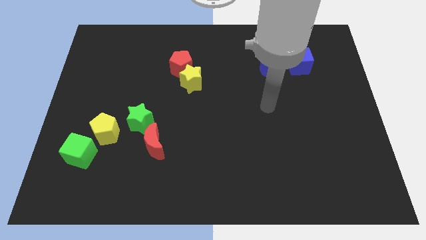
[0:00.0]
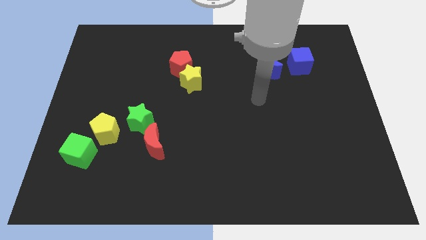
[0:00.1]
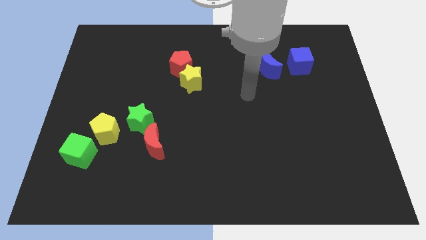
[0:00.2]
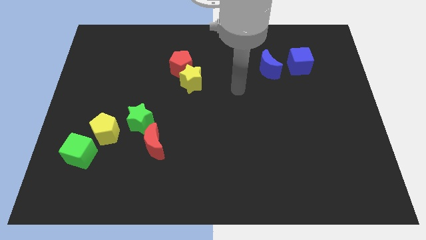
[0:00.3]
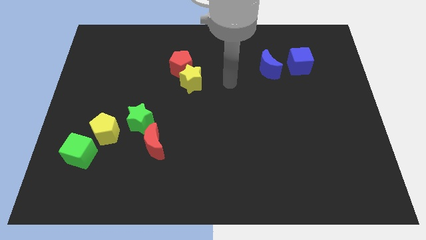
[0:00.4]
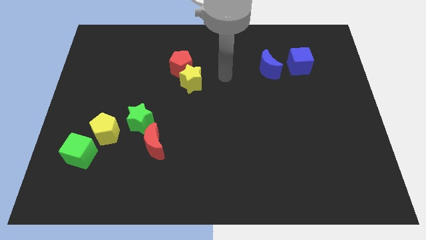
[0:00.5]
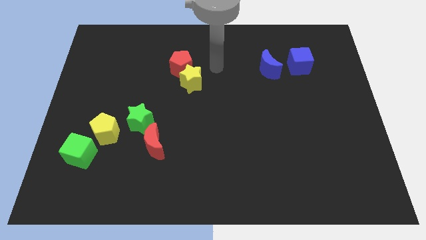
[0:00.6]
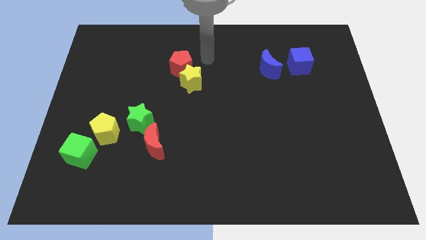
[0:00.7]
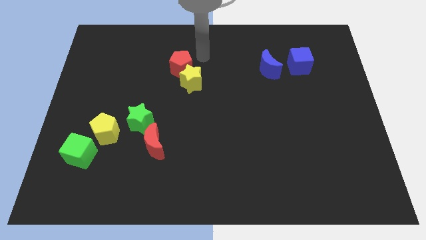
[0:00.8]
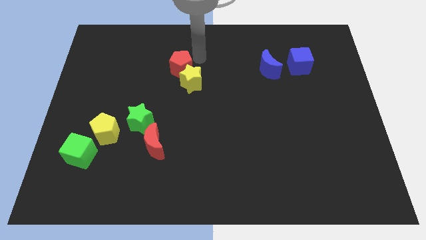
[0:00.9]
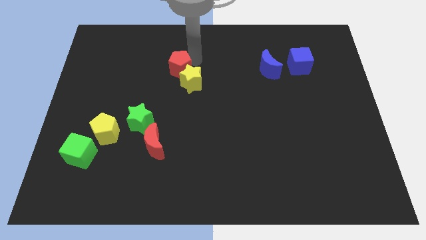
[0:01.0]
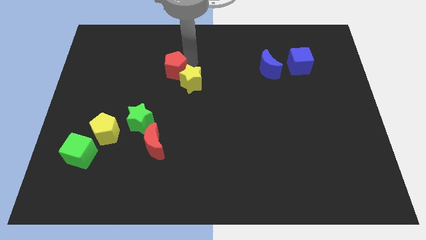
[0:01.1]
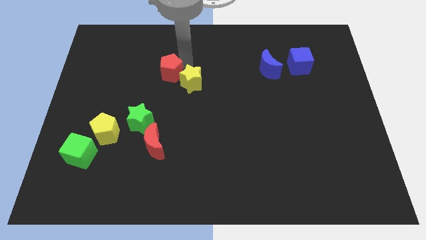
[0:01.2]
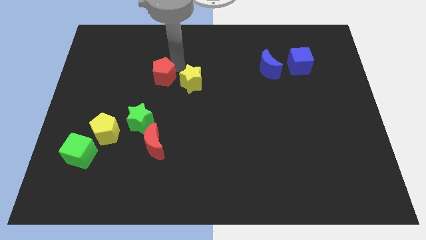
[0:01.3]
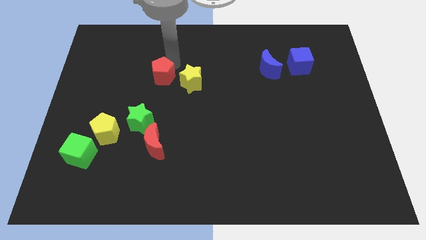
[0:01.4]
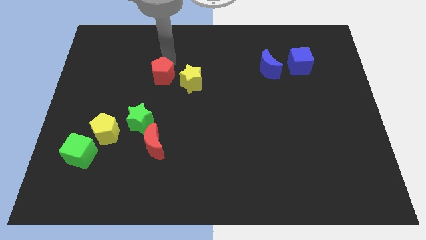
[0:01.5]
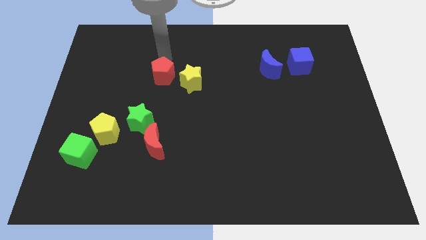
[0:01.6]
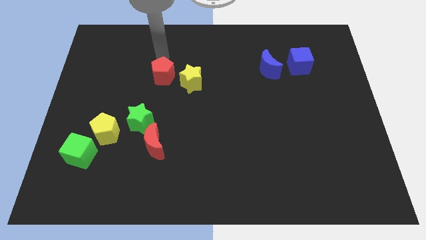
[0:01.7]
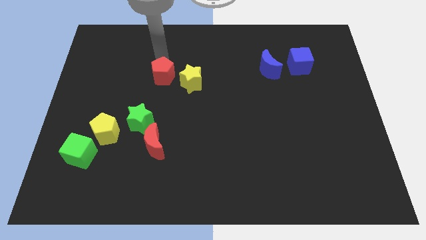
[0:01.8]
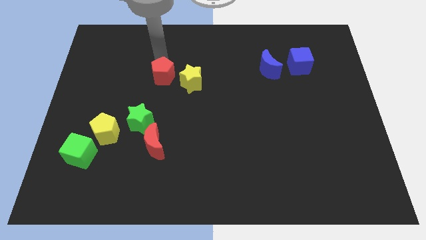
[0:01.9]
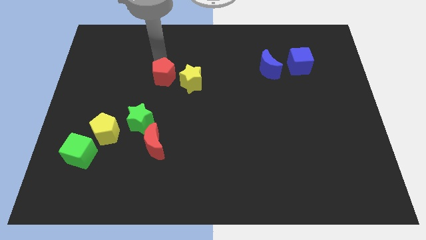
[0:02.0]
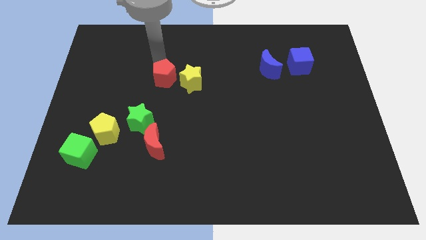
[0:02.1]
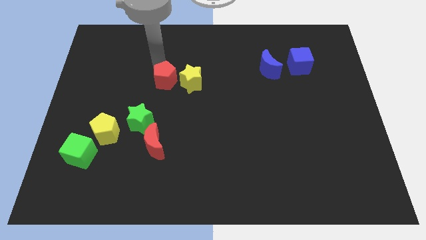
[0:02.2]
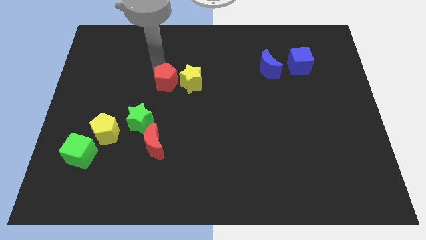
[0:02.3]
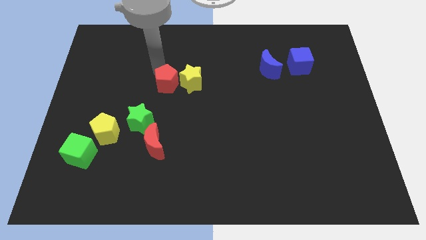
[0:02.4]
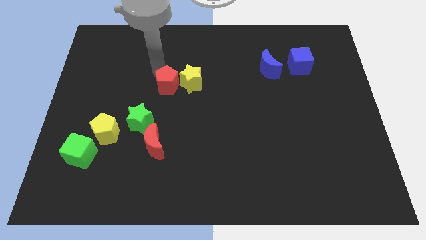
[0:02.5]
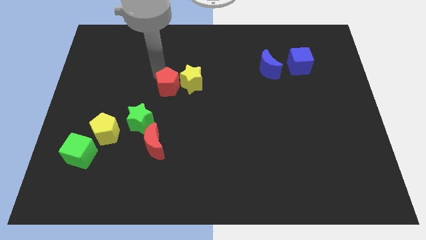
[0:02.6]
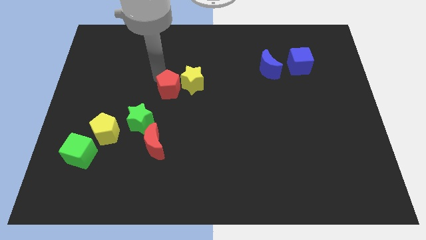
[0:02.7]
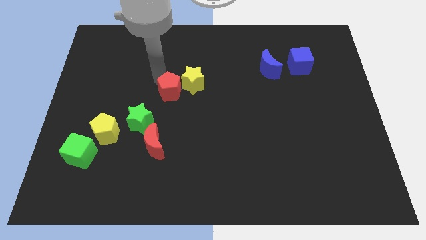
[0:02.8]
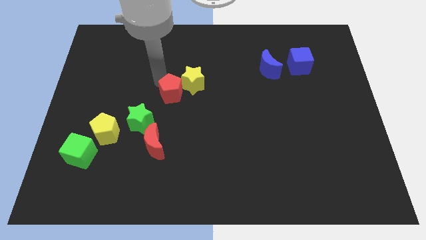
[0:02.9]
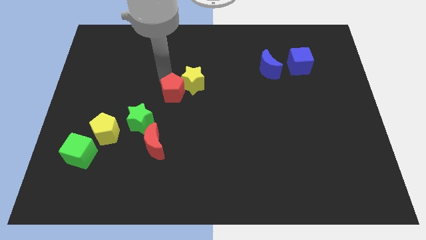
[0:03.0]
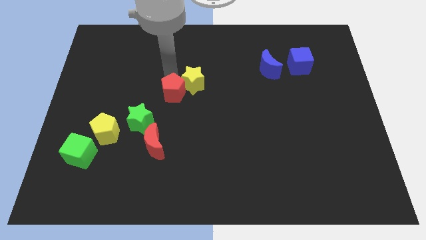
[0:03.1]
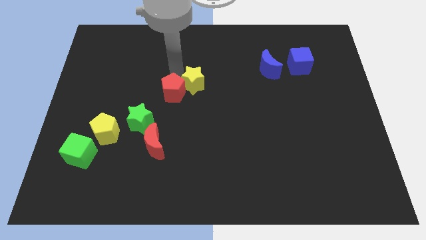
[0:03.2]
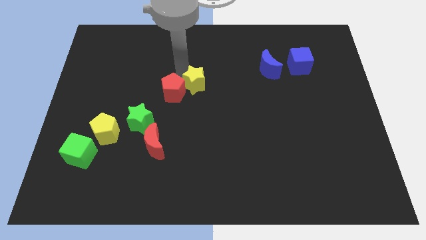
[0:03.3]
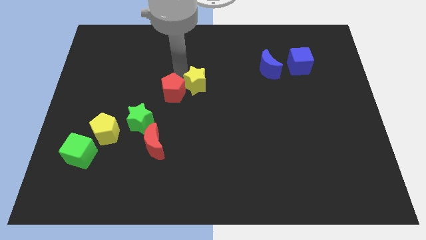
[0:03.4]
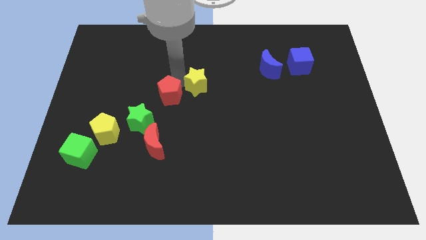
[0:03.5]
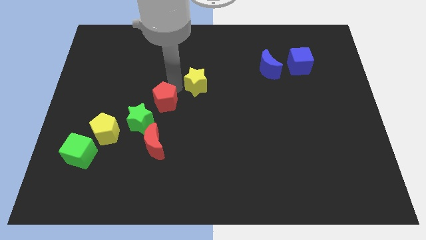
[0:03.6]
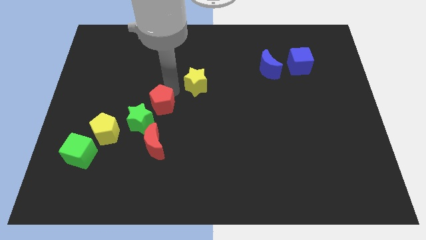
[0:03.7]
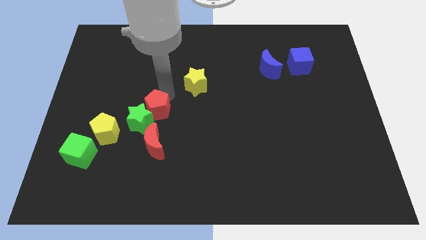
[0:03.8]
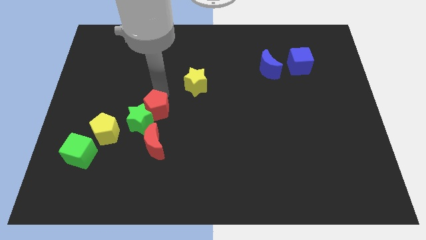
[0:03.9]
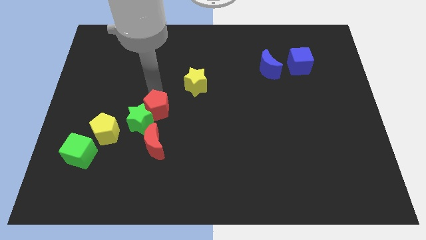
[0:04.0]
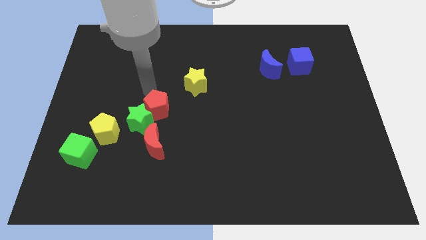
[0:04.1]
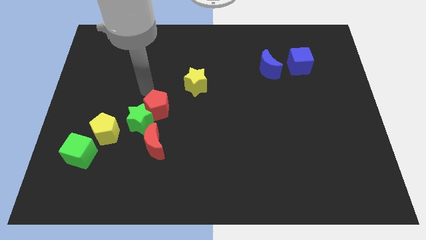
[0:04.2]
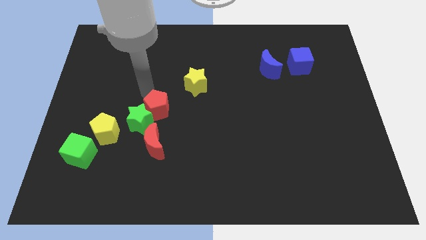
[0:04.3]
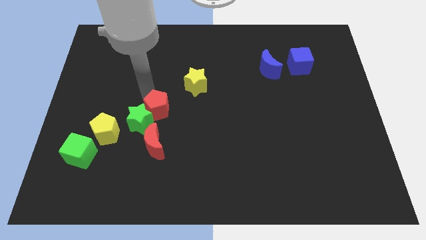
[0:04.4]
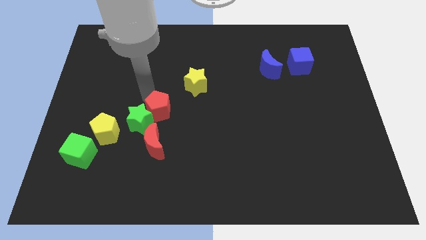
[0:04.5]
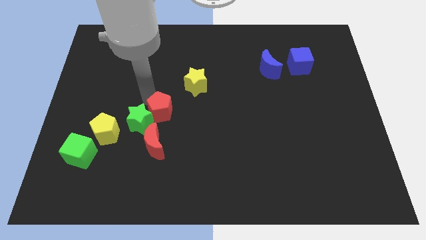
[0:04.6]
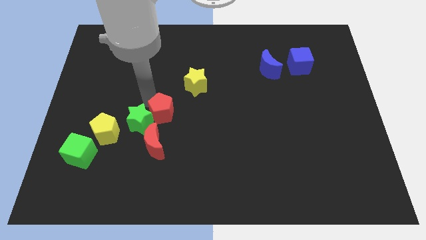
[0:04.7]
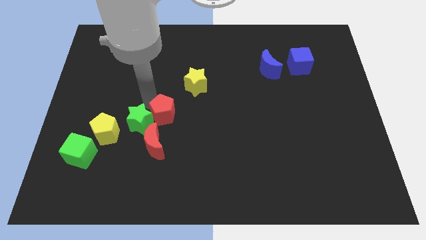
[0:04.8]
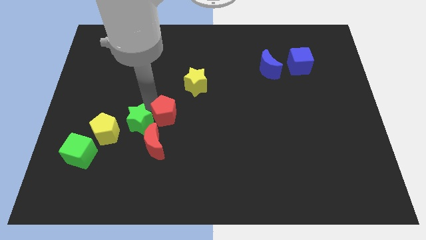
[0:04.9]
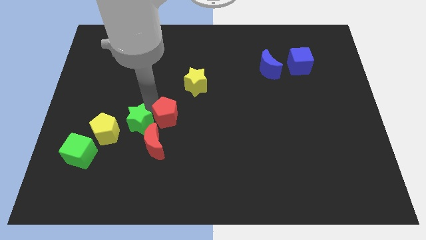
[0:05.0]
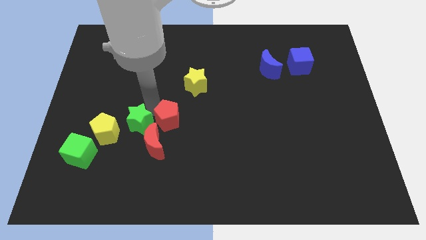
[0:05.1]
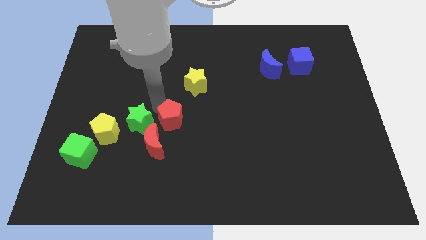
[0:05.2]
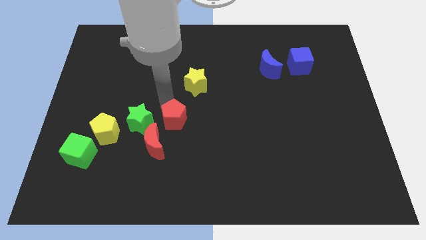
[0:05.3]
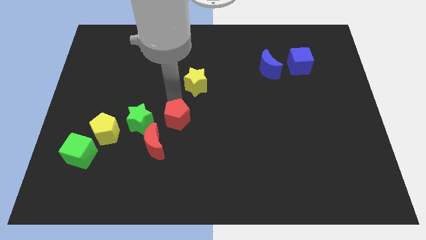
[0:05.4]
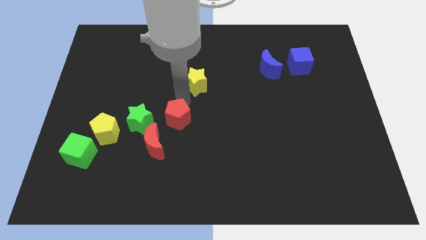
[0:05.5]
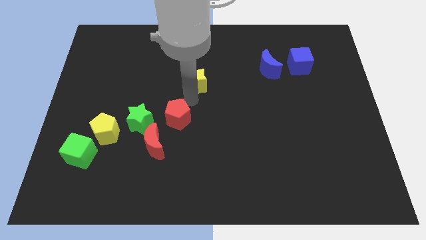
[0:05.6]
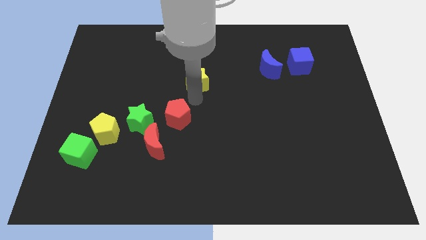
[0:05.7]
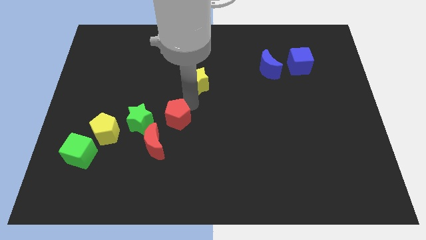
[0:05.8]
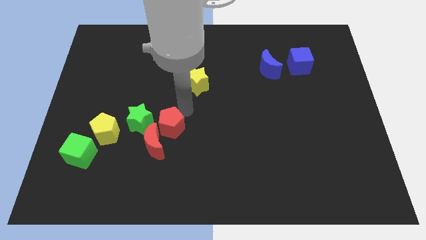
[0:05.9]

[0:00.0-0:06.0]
push the red pentagon close to the red moon

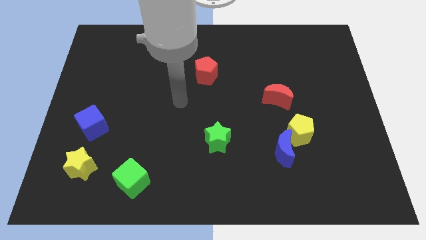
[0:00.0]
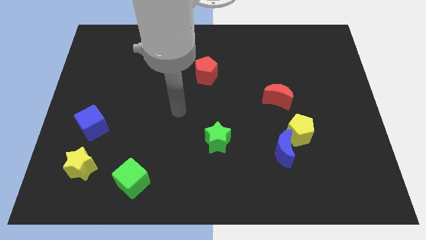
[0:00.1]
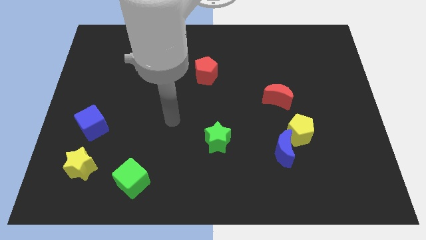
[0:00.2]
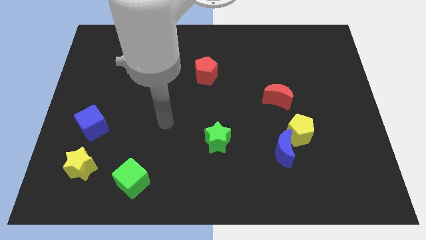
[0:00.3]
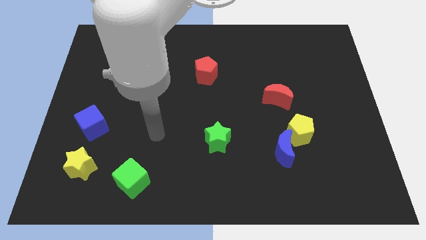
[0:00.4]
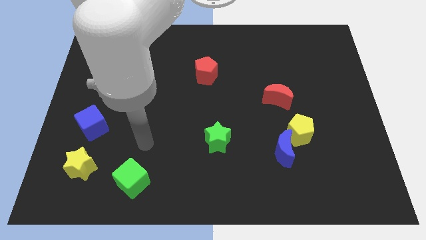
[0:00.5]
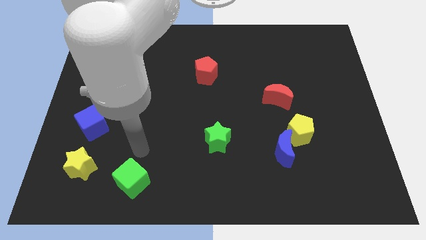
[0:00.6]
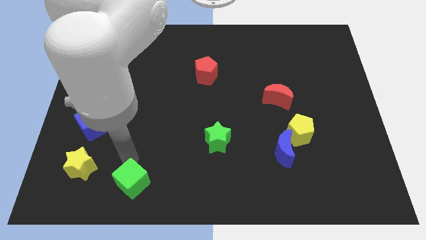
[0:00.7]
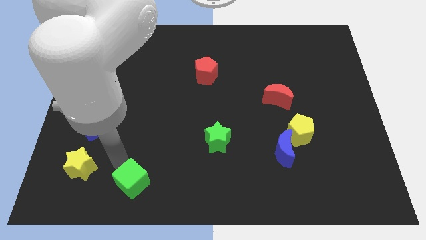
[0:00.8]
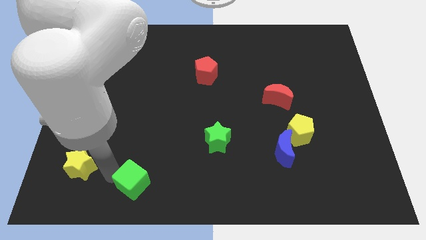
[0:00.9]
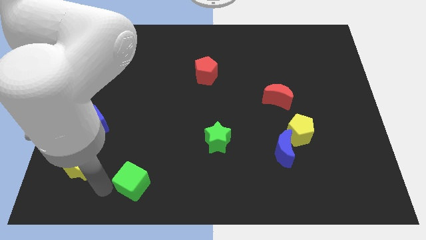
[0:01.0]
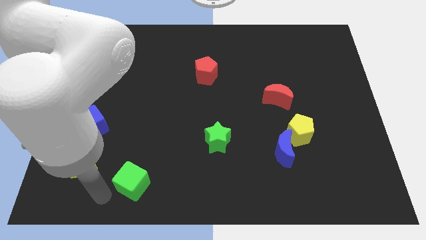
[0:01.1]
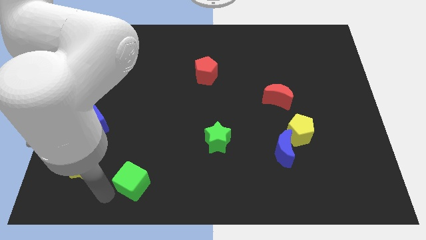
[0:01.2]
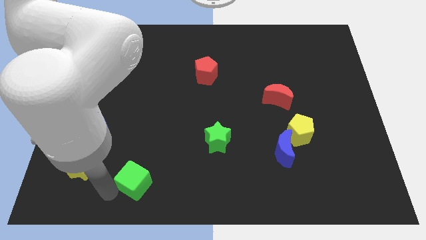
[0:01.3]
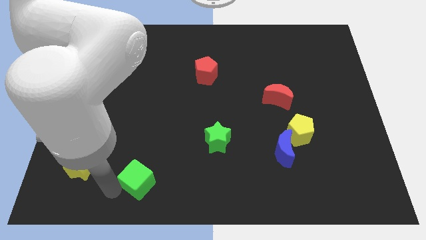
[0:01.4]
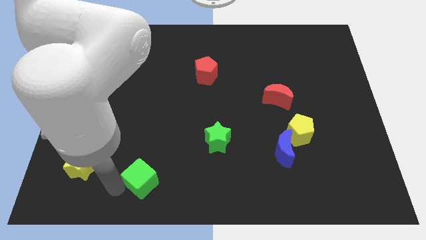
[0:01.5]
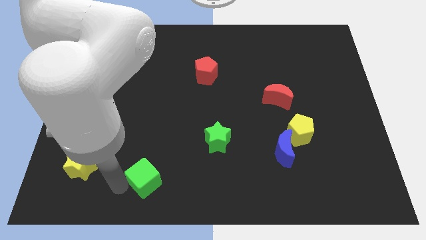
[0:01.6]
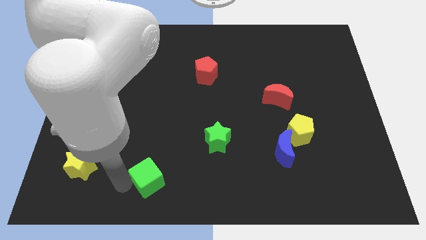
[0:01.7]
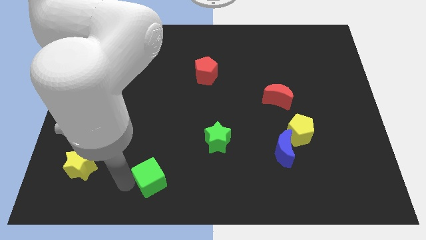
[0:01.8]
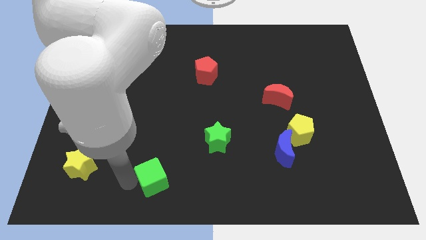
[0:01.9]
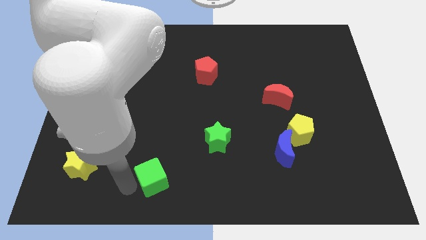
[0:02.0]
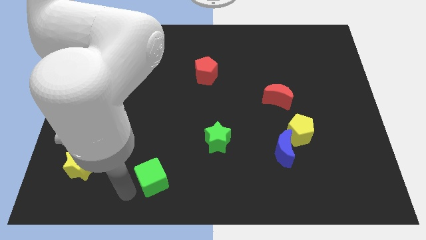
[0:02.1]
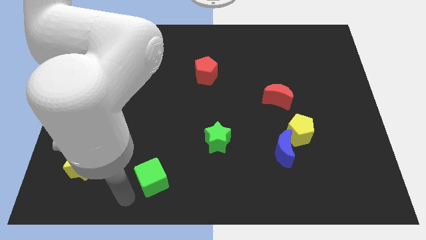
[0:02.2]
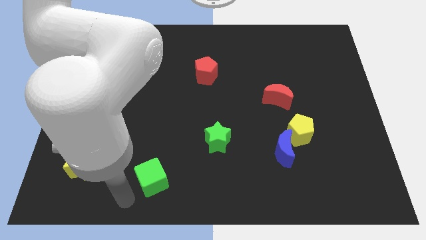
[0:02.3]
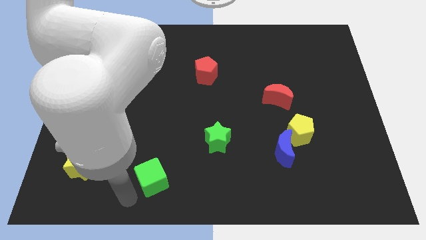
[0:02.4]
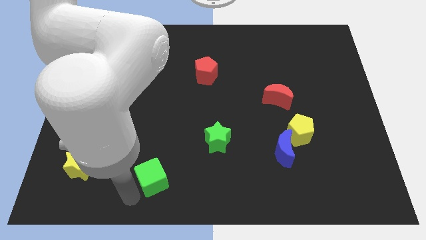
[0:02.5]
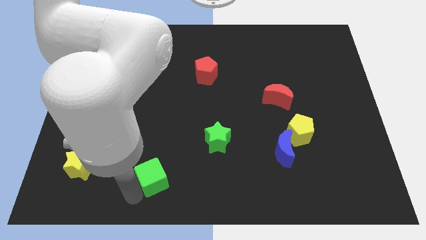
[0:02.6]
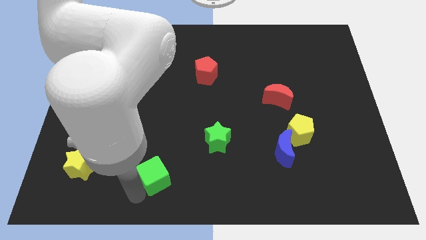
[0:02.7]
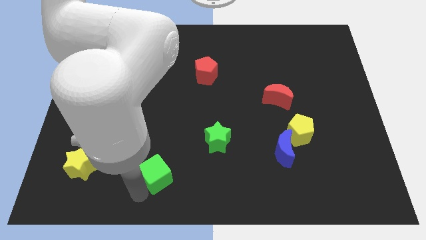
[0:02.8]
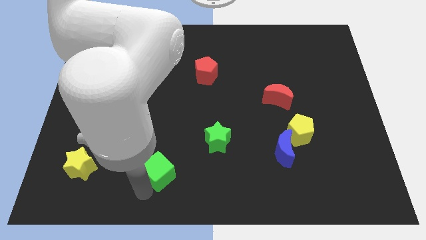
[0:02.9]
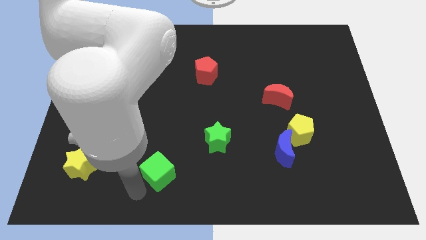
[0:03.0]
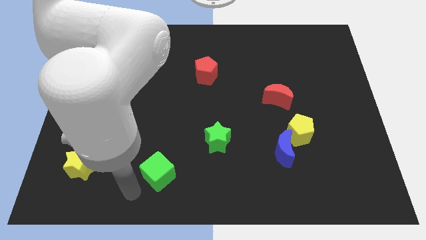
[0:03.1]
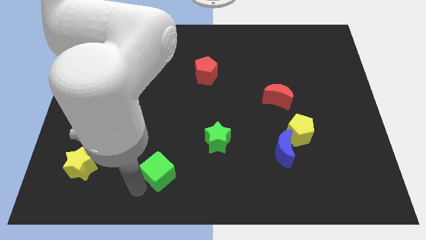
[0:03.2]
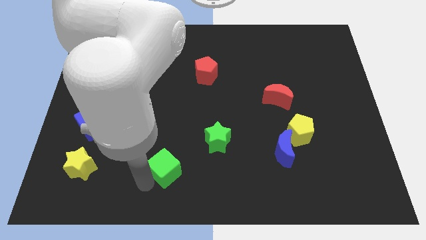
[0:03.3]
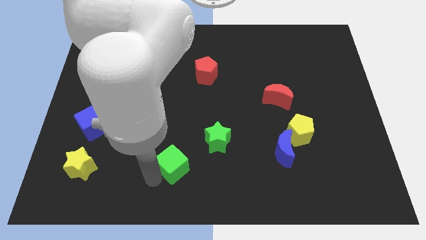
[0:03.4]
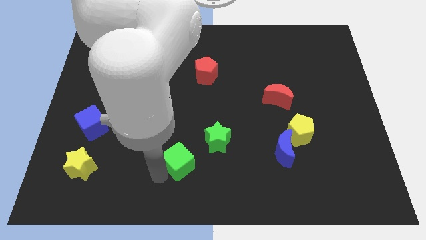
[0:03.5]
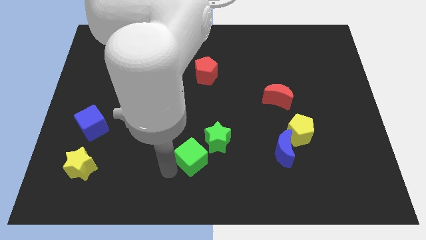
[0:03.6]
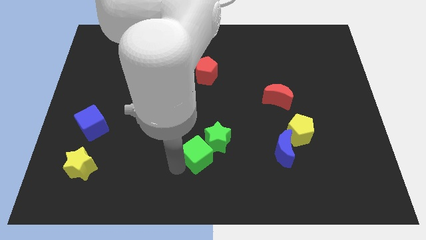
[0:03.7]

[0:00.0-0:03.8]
slide the green cube next to the green star
